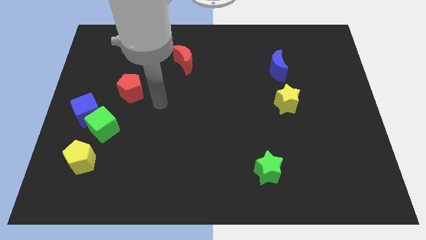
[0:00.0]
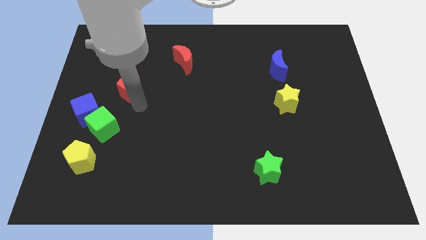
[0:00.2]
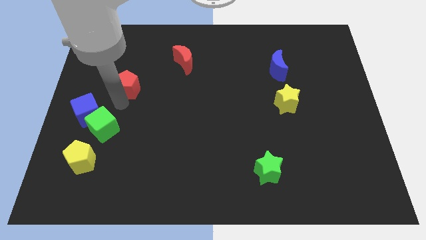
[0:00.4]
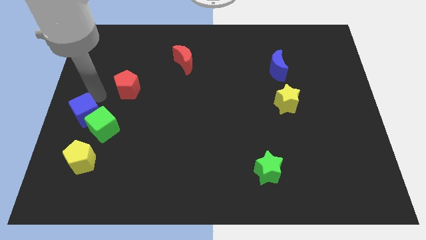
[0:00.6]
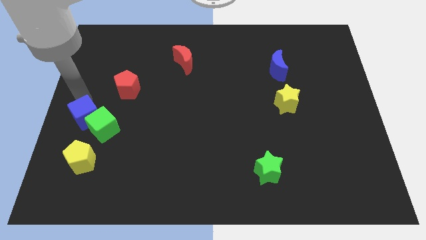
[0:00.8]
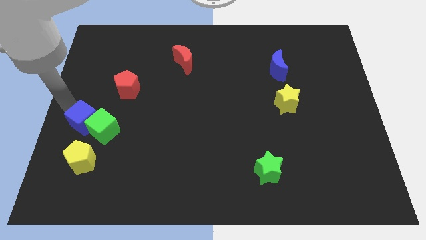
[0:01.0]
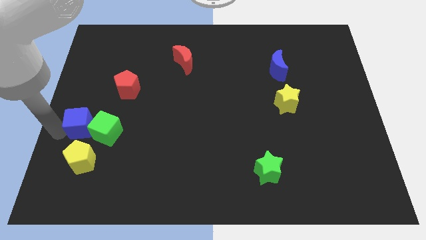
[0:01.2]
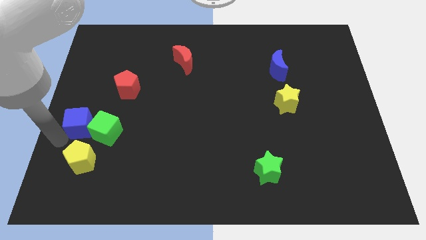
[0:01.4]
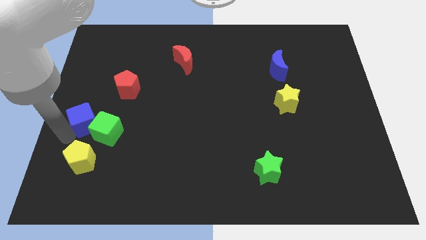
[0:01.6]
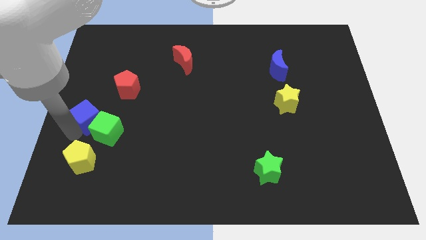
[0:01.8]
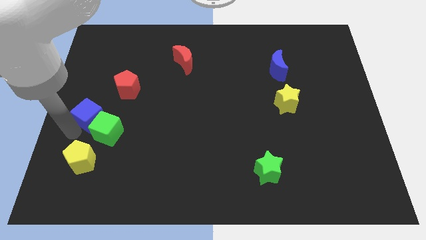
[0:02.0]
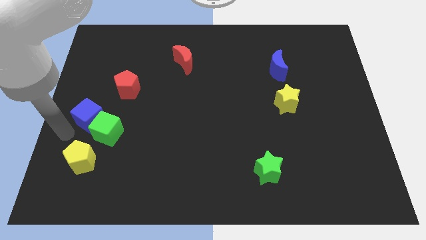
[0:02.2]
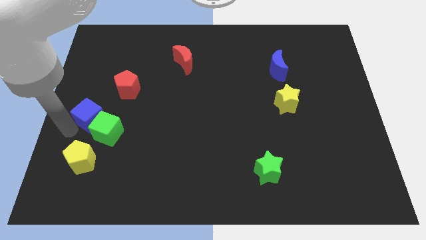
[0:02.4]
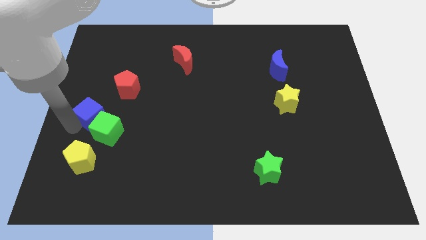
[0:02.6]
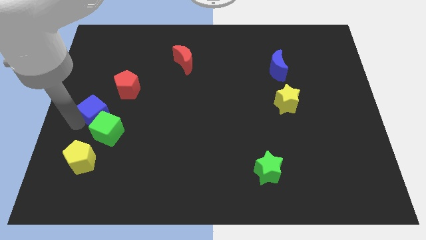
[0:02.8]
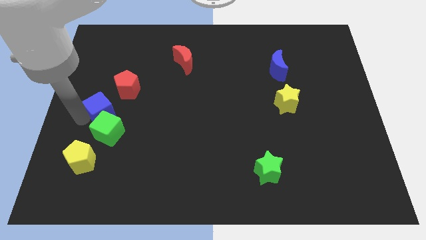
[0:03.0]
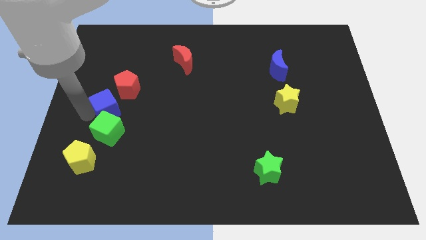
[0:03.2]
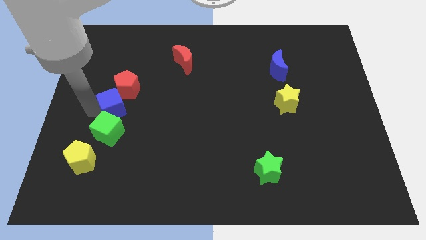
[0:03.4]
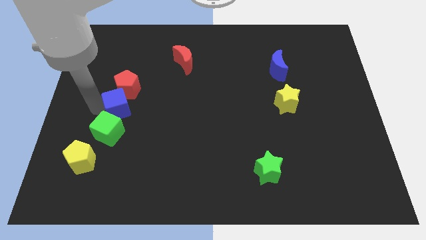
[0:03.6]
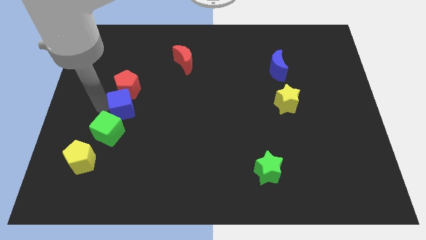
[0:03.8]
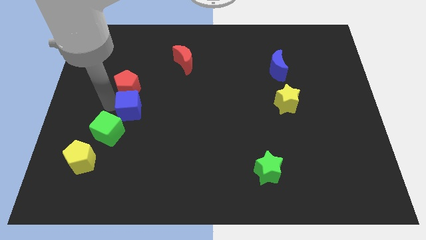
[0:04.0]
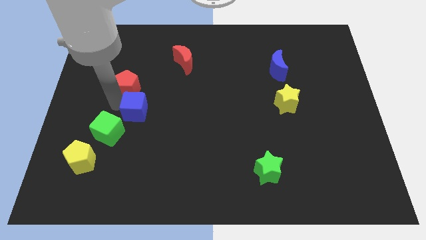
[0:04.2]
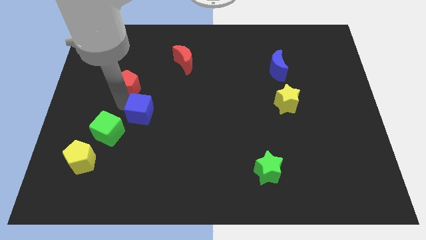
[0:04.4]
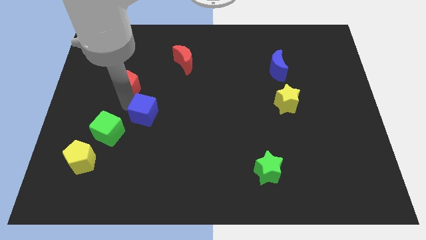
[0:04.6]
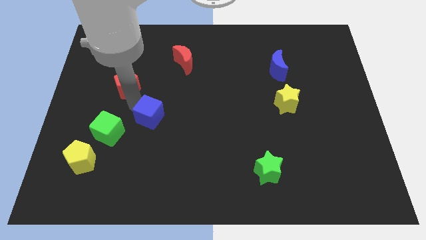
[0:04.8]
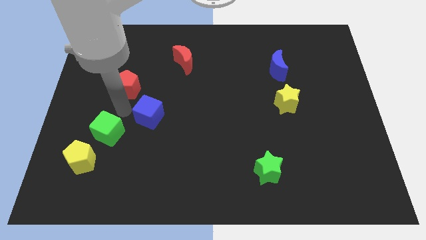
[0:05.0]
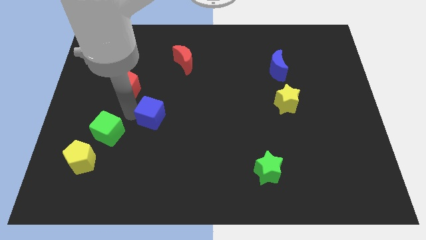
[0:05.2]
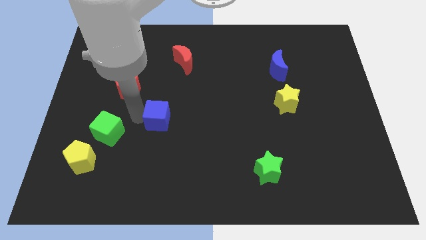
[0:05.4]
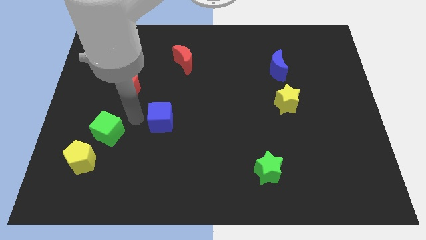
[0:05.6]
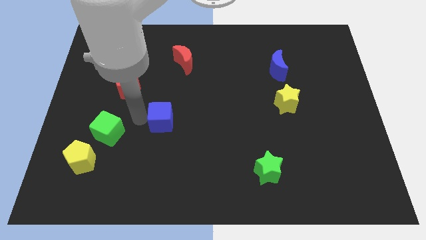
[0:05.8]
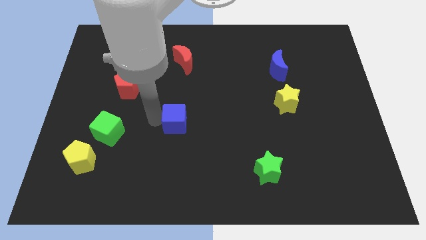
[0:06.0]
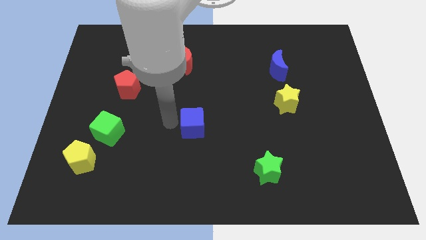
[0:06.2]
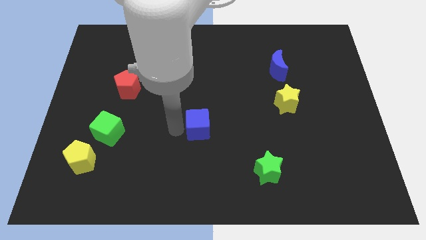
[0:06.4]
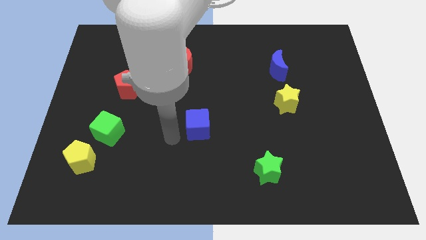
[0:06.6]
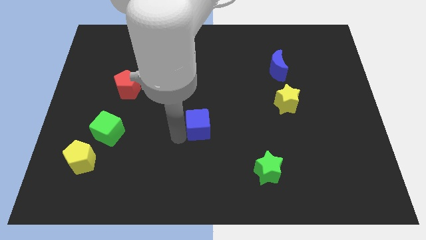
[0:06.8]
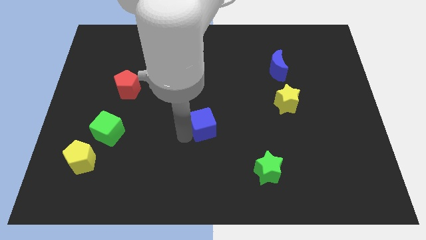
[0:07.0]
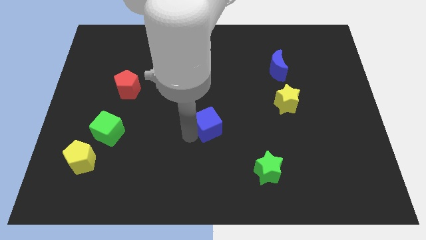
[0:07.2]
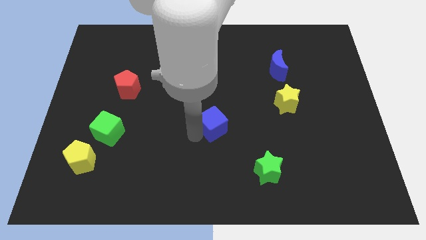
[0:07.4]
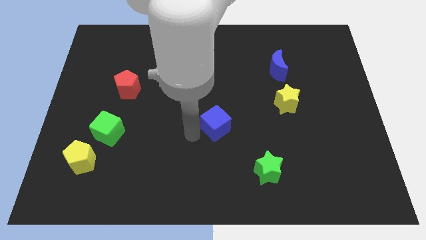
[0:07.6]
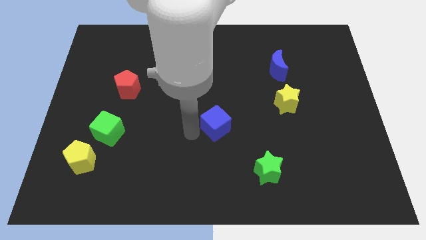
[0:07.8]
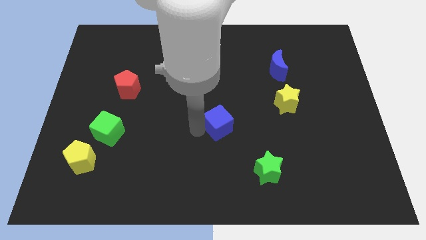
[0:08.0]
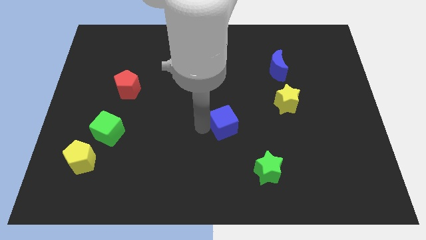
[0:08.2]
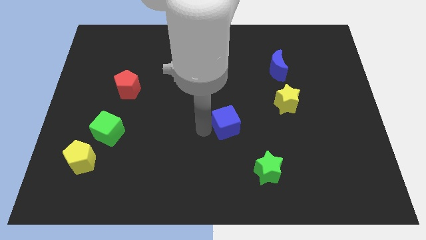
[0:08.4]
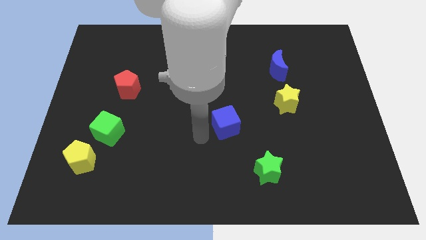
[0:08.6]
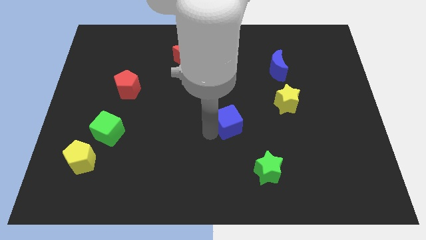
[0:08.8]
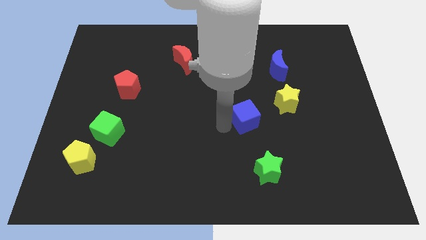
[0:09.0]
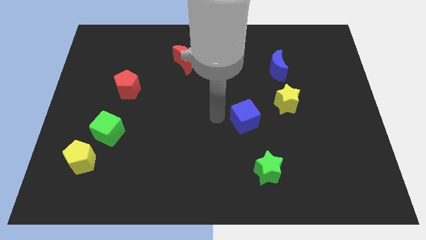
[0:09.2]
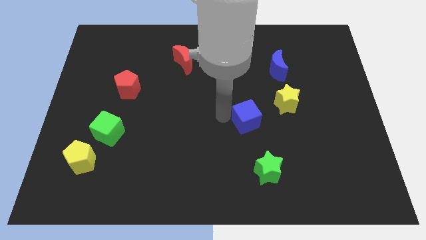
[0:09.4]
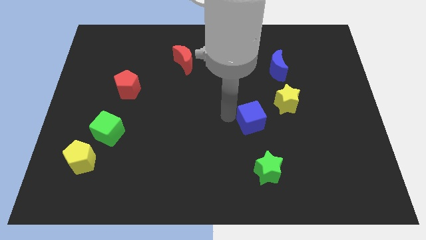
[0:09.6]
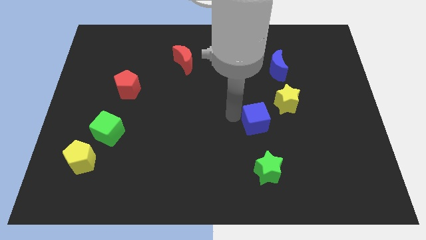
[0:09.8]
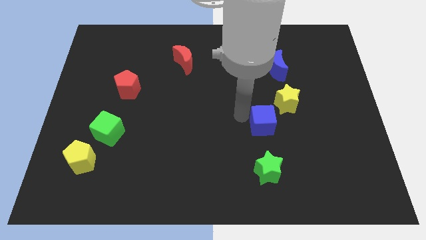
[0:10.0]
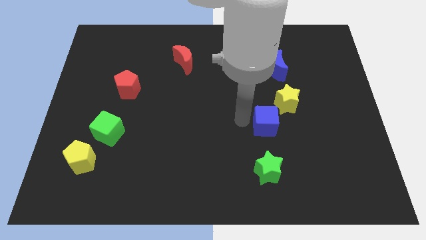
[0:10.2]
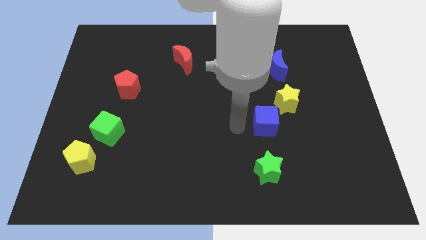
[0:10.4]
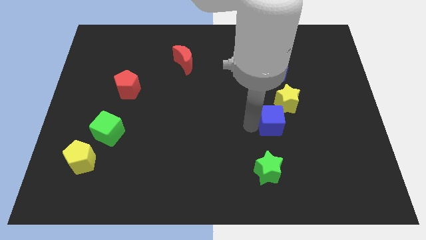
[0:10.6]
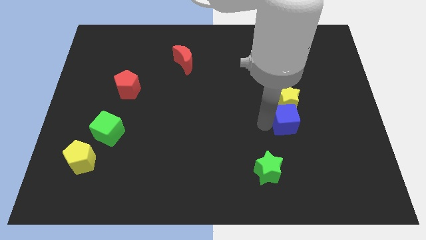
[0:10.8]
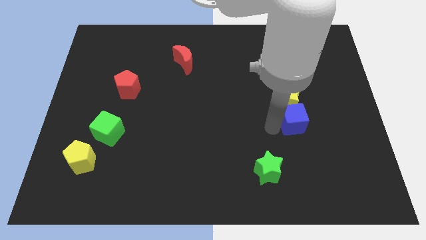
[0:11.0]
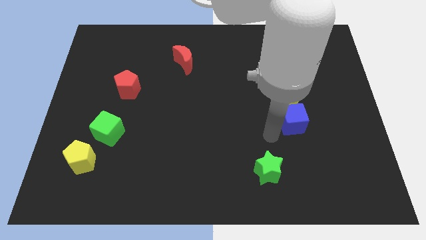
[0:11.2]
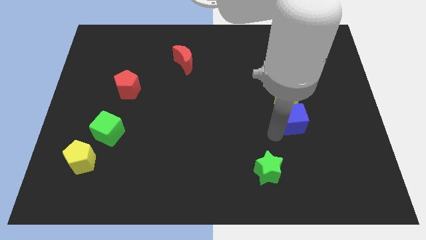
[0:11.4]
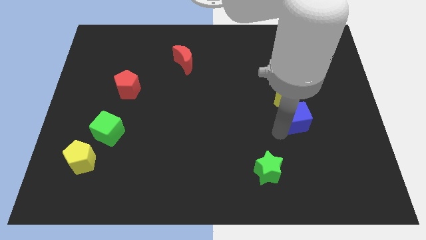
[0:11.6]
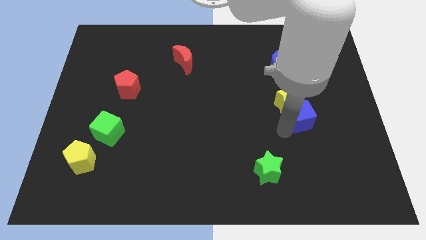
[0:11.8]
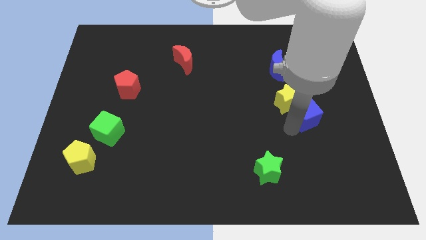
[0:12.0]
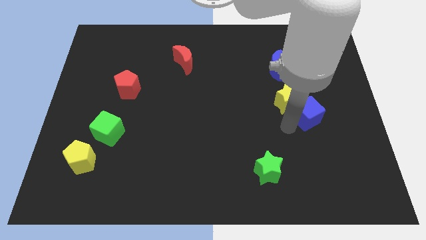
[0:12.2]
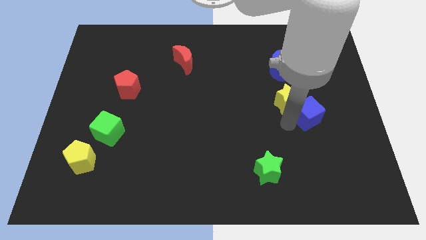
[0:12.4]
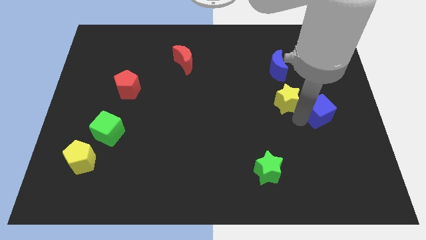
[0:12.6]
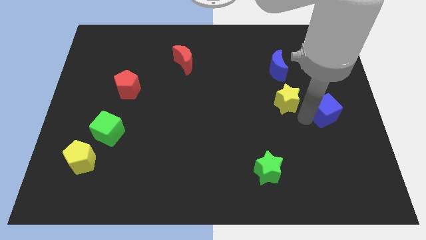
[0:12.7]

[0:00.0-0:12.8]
move the blue cube to the right side

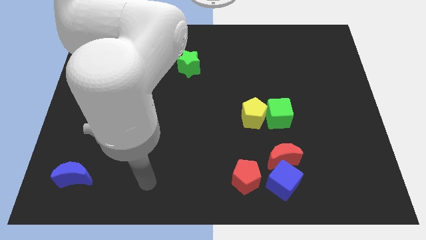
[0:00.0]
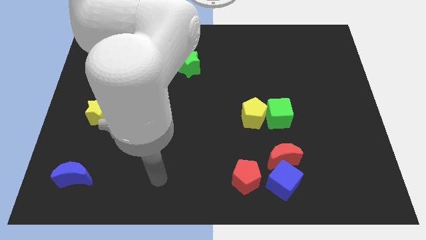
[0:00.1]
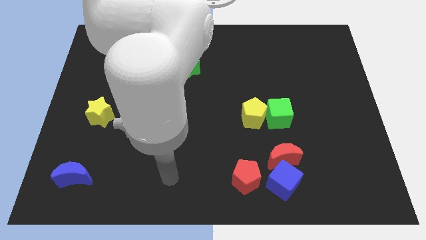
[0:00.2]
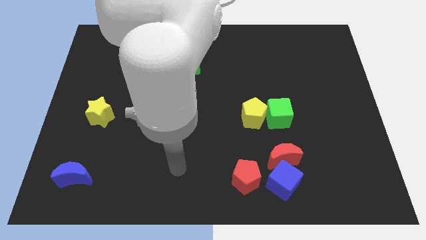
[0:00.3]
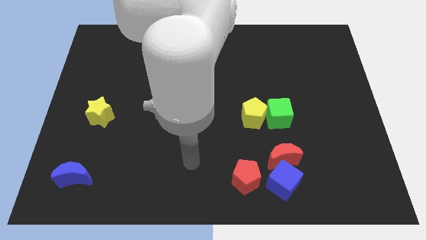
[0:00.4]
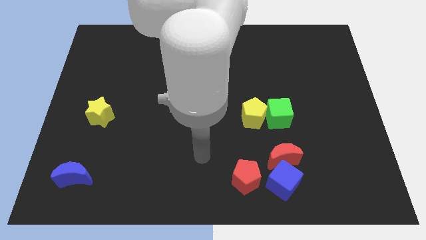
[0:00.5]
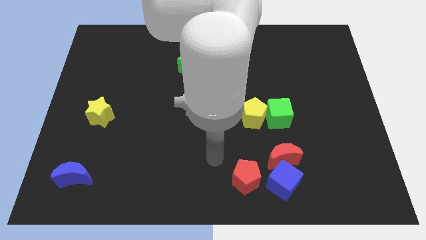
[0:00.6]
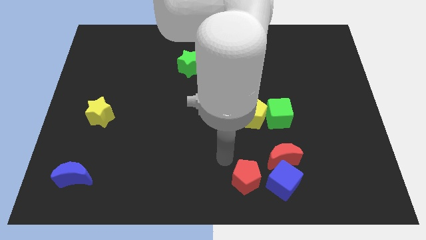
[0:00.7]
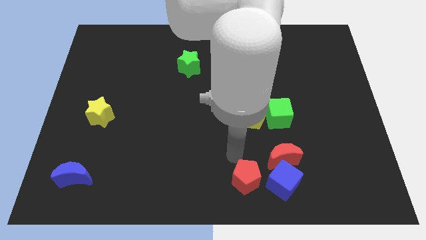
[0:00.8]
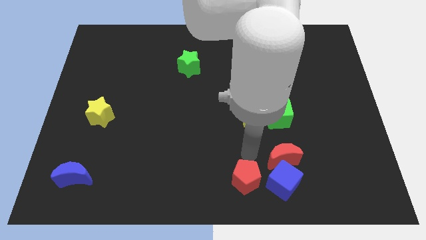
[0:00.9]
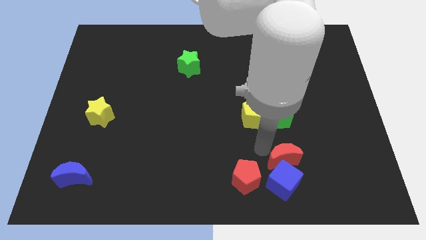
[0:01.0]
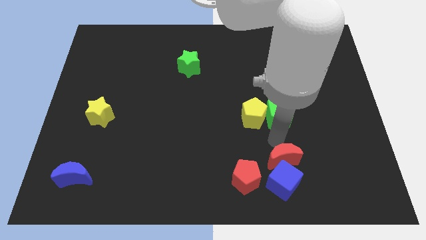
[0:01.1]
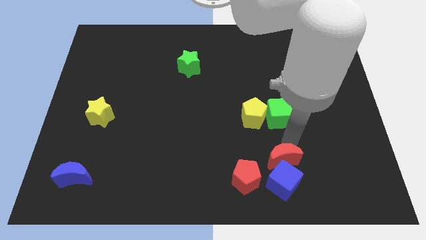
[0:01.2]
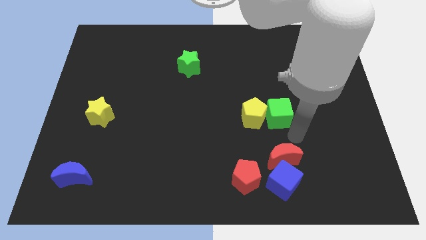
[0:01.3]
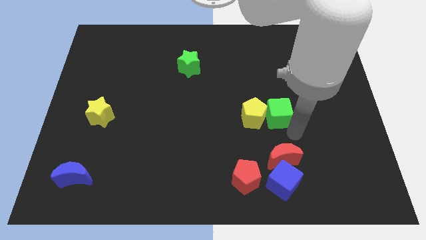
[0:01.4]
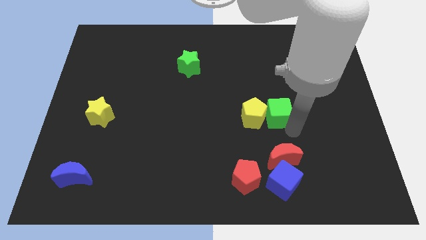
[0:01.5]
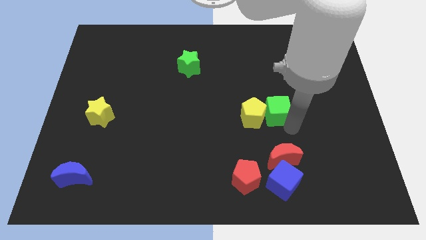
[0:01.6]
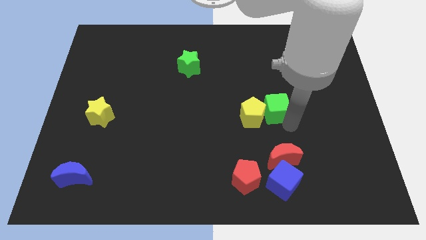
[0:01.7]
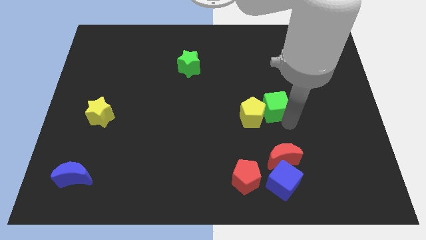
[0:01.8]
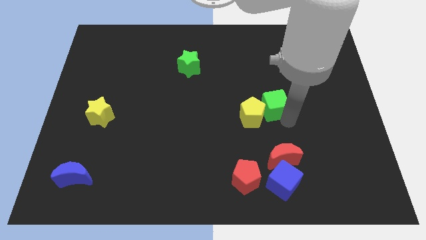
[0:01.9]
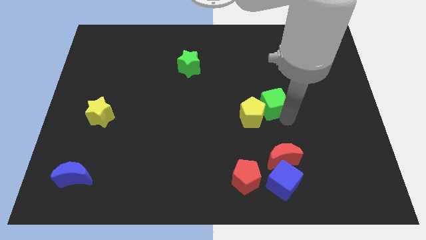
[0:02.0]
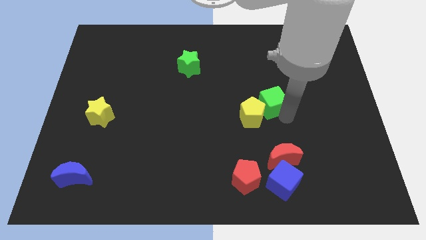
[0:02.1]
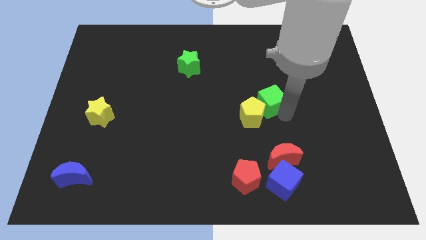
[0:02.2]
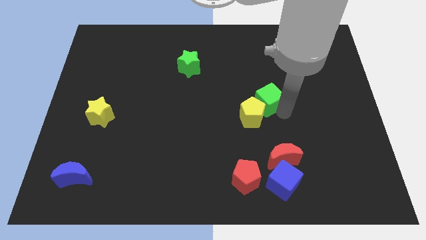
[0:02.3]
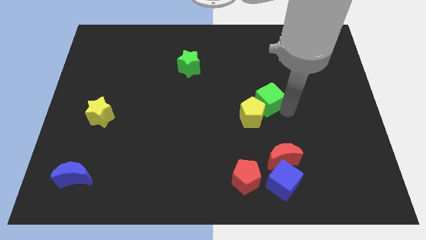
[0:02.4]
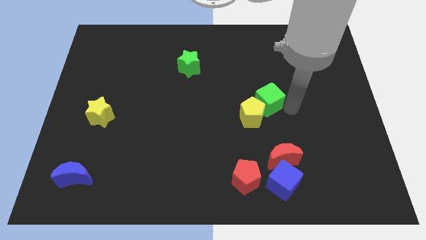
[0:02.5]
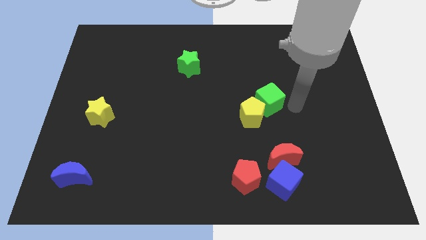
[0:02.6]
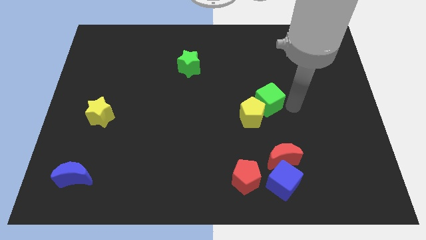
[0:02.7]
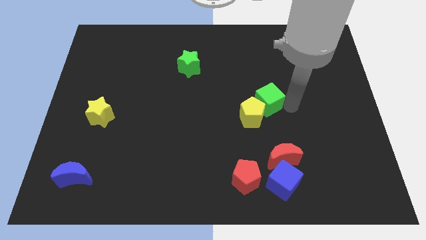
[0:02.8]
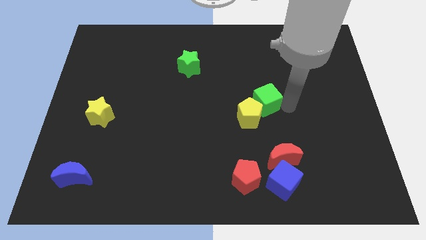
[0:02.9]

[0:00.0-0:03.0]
put the green cube to the middle of the board
